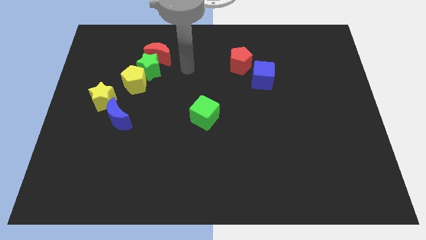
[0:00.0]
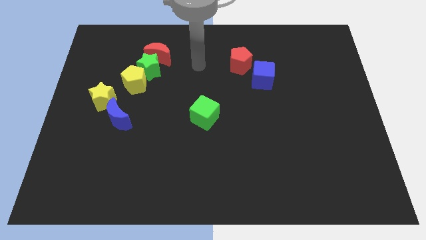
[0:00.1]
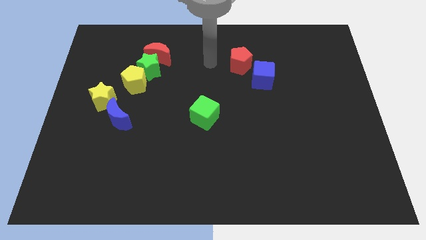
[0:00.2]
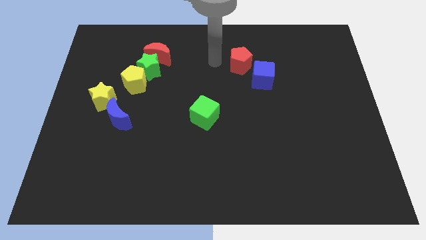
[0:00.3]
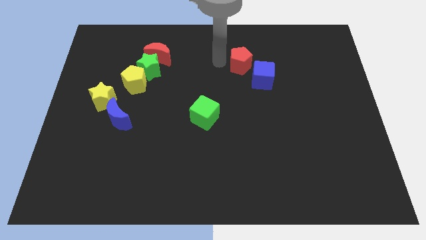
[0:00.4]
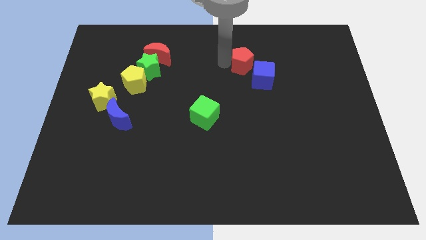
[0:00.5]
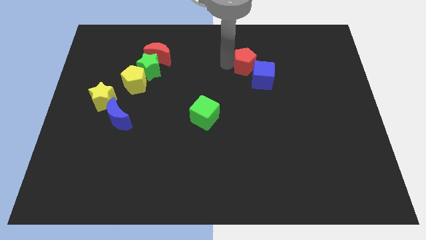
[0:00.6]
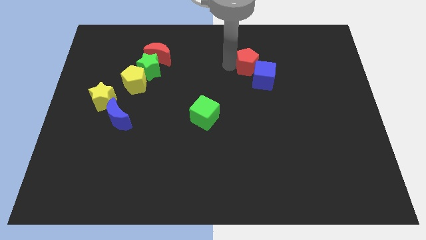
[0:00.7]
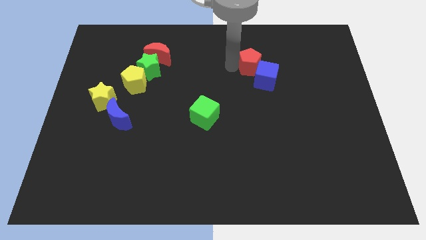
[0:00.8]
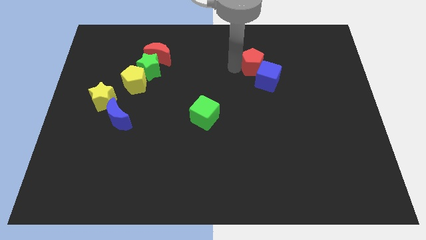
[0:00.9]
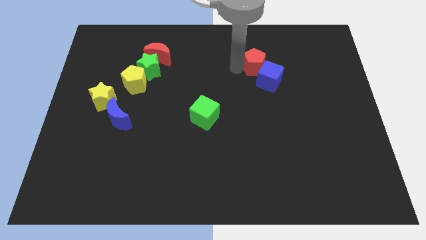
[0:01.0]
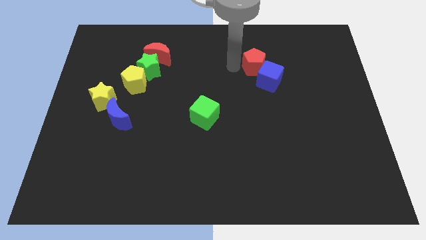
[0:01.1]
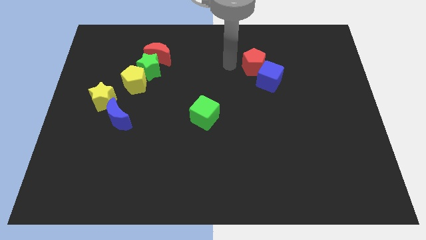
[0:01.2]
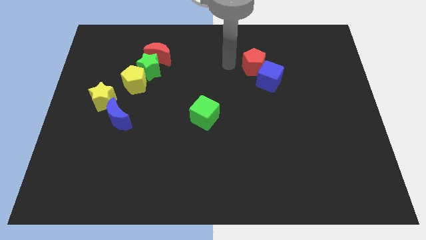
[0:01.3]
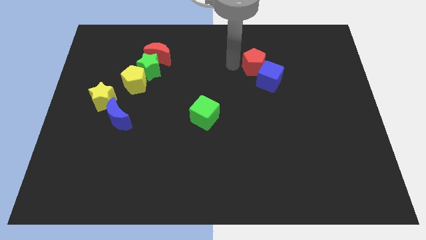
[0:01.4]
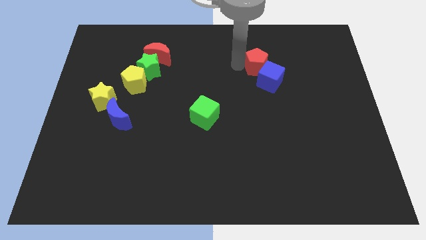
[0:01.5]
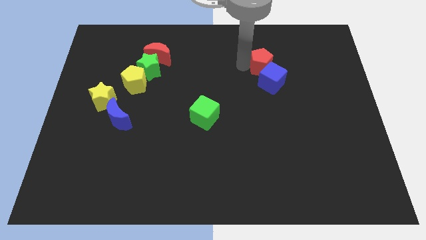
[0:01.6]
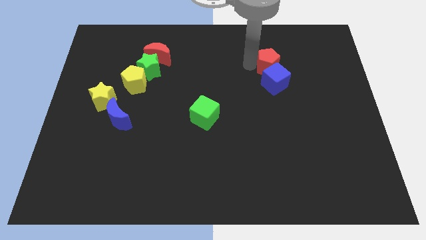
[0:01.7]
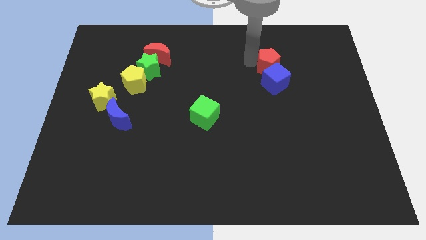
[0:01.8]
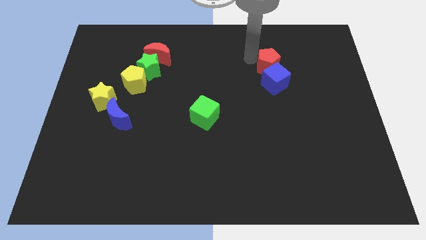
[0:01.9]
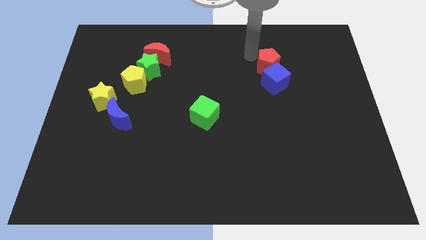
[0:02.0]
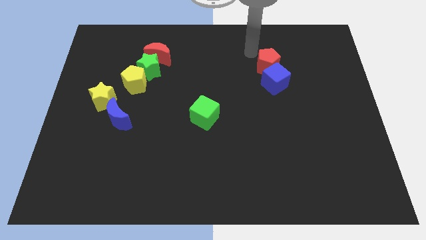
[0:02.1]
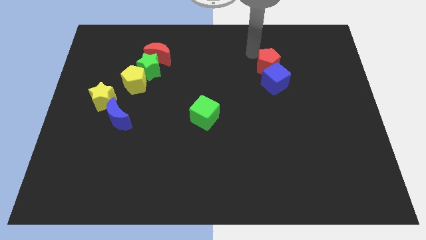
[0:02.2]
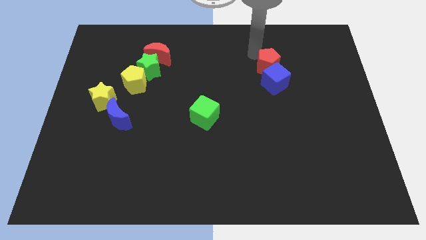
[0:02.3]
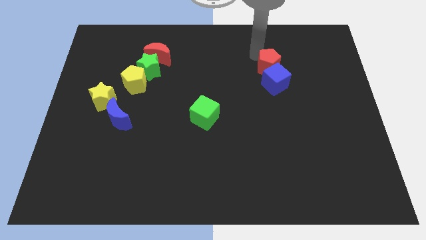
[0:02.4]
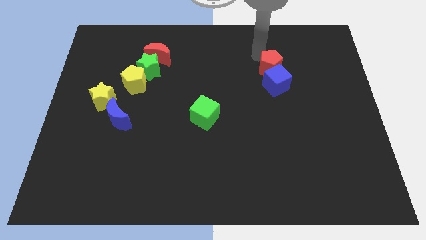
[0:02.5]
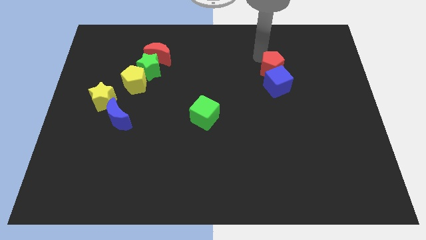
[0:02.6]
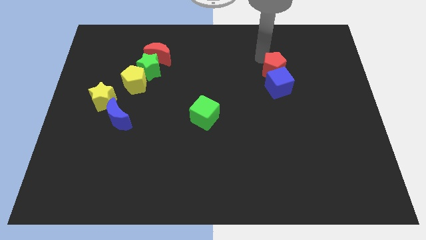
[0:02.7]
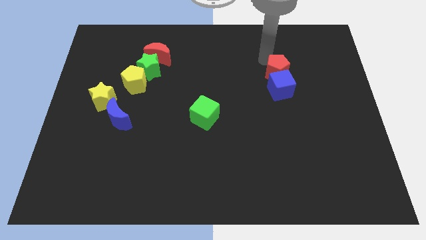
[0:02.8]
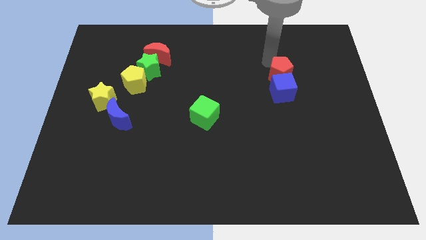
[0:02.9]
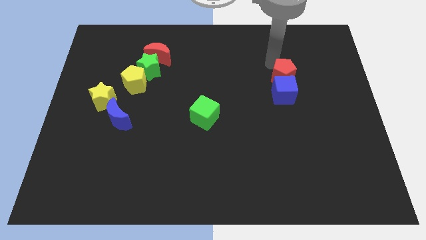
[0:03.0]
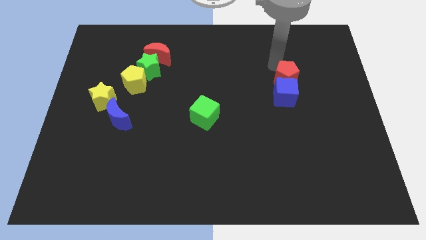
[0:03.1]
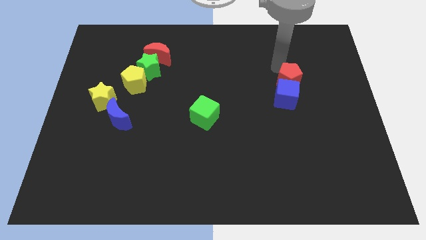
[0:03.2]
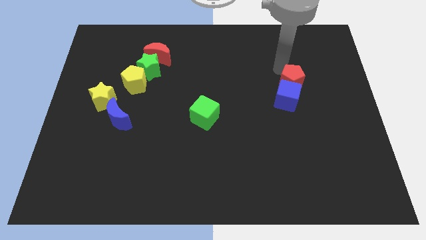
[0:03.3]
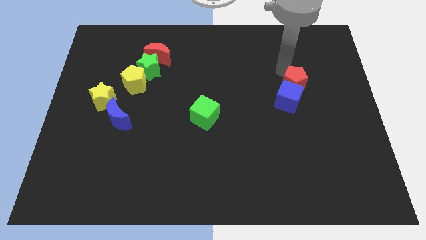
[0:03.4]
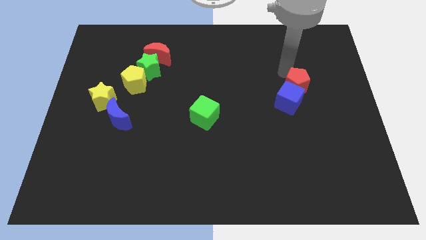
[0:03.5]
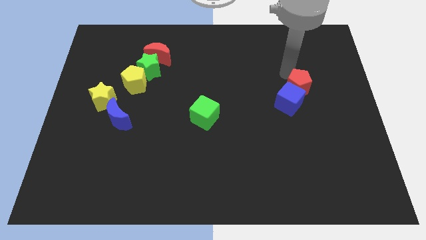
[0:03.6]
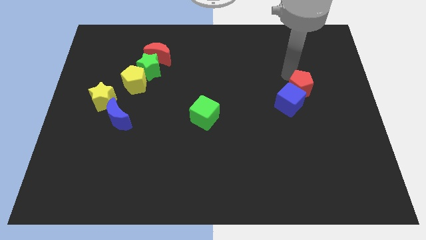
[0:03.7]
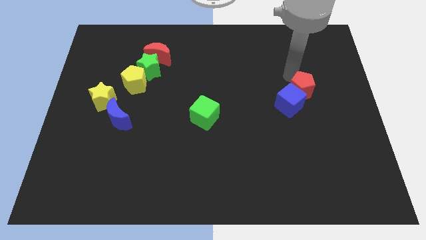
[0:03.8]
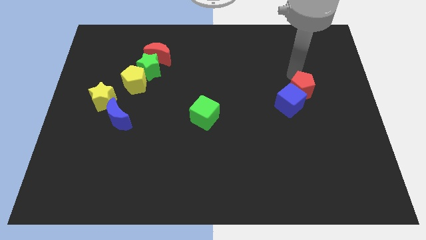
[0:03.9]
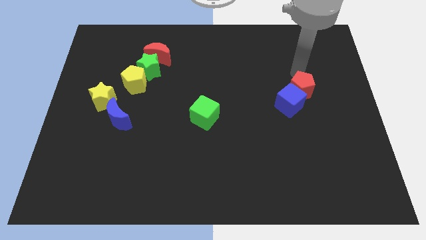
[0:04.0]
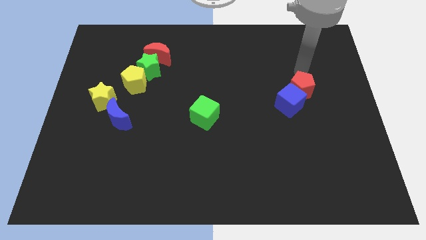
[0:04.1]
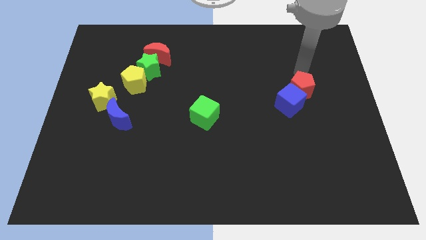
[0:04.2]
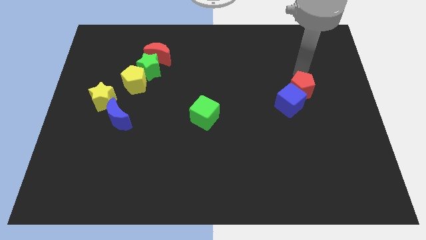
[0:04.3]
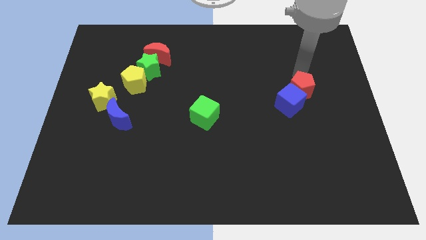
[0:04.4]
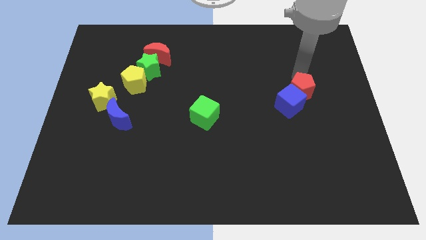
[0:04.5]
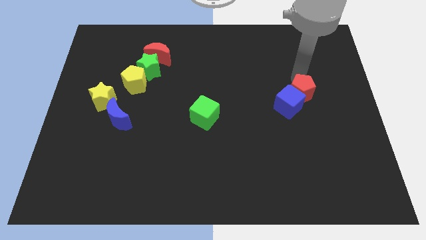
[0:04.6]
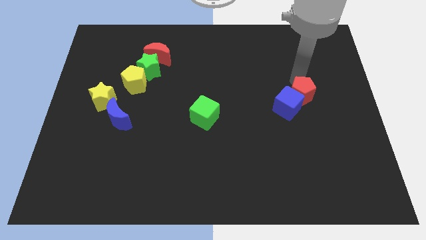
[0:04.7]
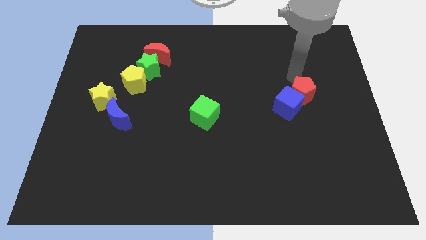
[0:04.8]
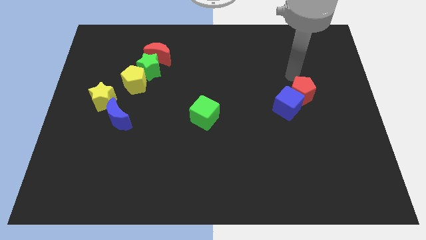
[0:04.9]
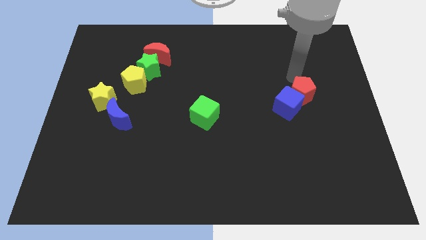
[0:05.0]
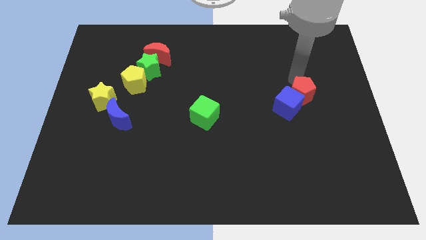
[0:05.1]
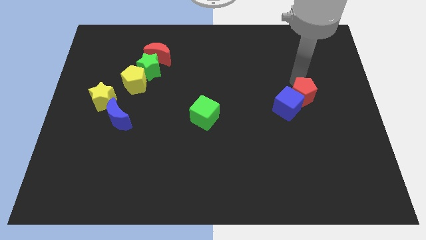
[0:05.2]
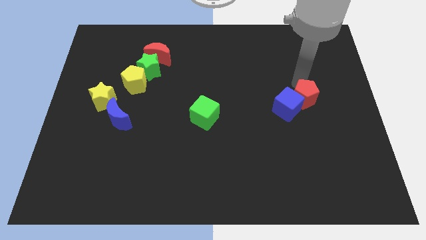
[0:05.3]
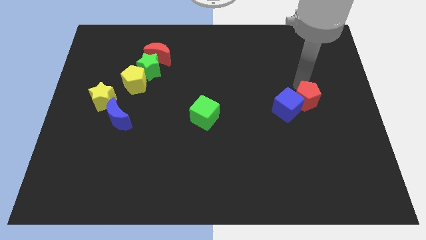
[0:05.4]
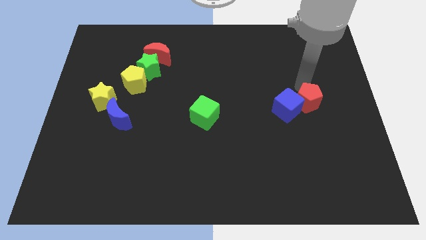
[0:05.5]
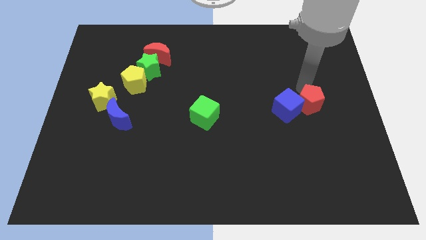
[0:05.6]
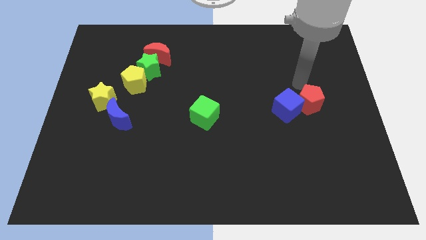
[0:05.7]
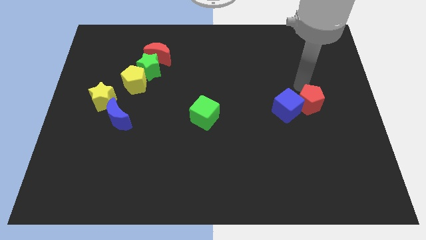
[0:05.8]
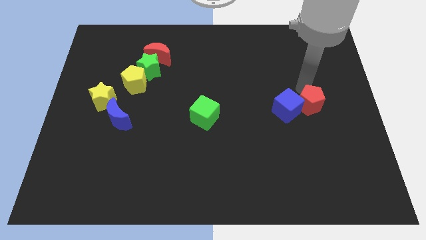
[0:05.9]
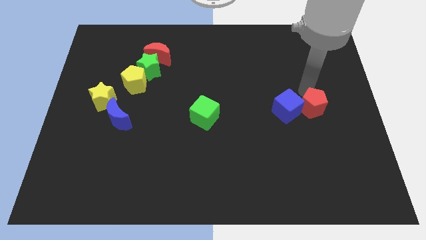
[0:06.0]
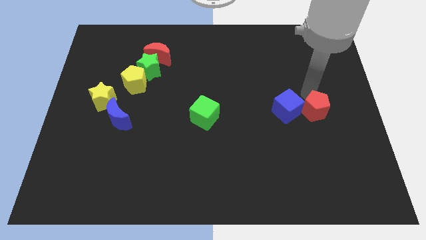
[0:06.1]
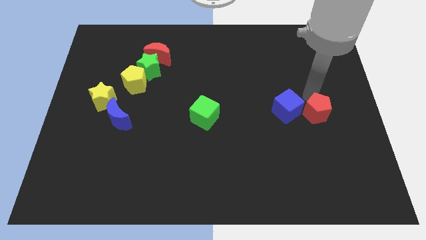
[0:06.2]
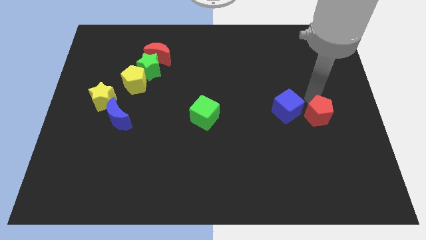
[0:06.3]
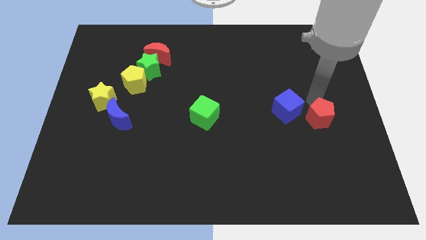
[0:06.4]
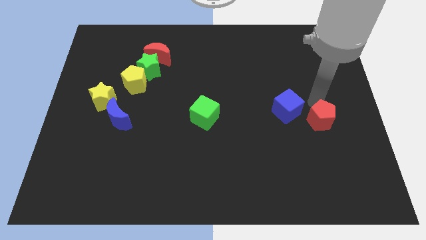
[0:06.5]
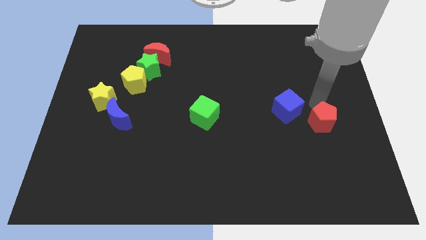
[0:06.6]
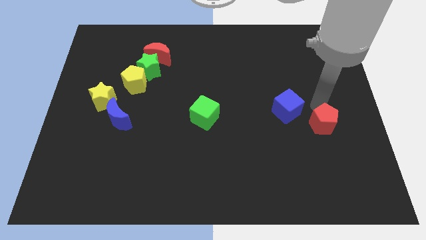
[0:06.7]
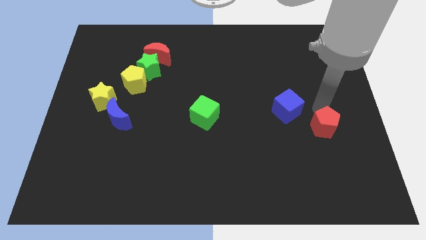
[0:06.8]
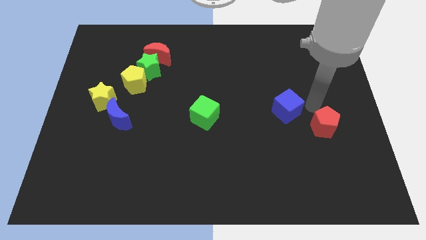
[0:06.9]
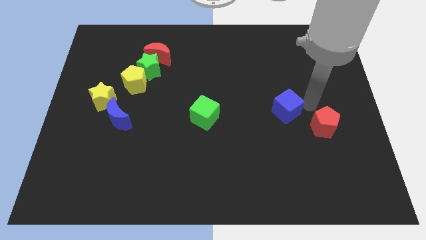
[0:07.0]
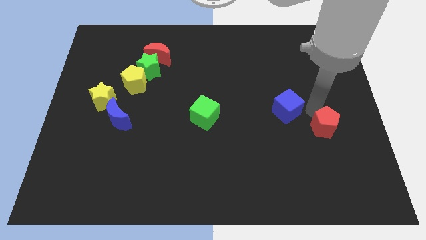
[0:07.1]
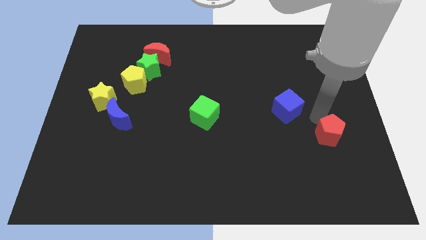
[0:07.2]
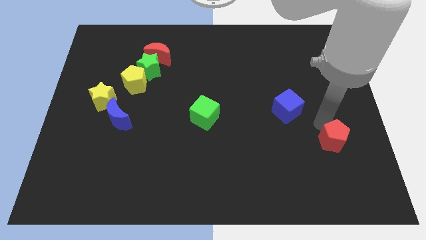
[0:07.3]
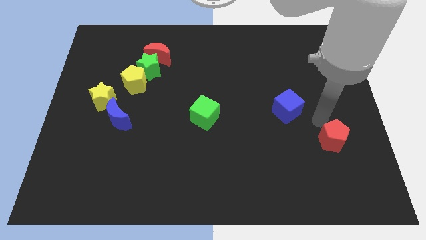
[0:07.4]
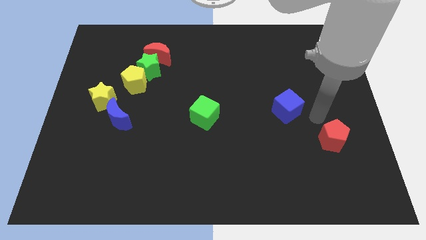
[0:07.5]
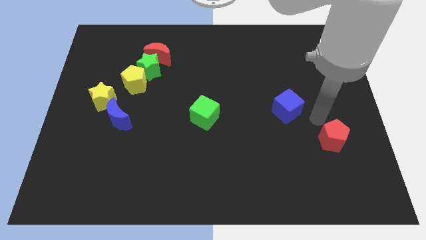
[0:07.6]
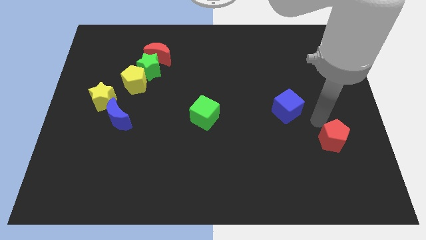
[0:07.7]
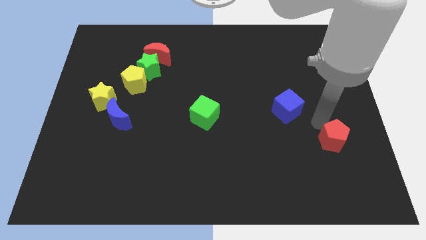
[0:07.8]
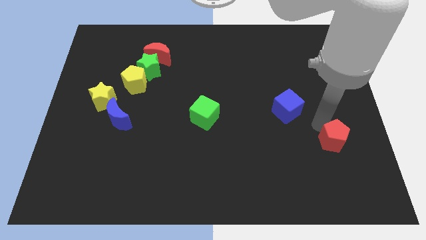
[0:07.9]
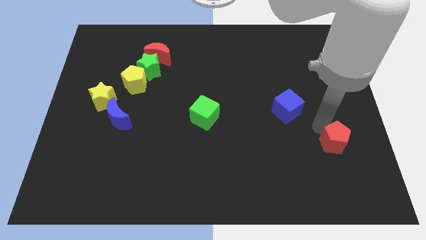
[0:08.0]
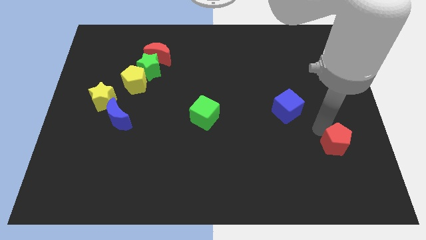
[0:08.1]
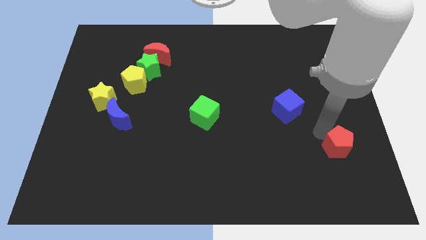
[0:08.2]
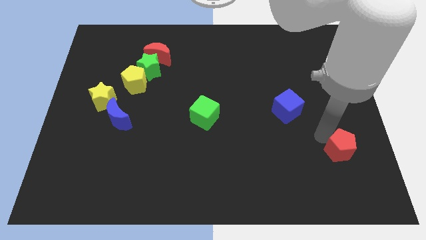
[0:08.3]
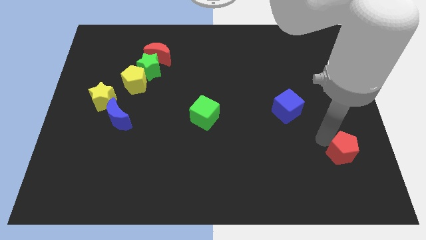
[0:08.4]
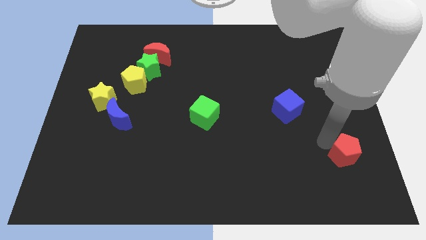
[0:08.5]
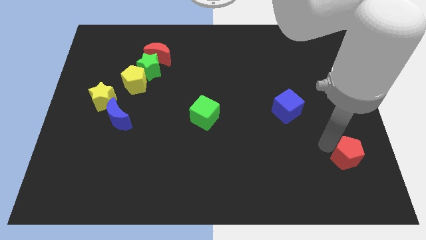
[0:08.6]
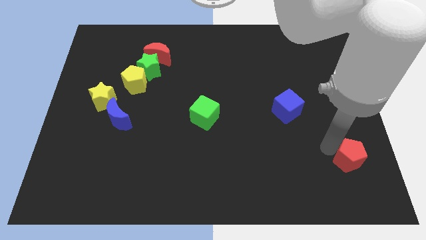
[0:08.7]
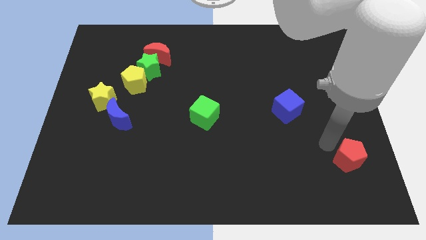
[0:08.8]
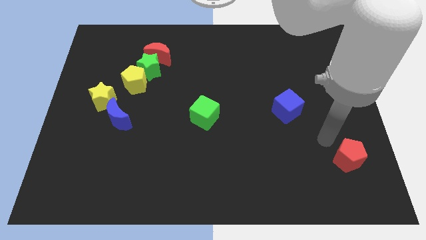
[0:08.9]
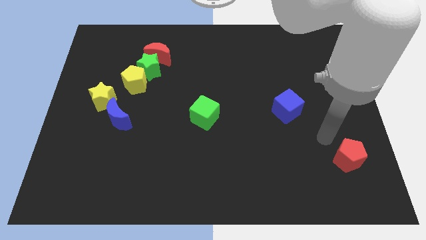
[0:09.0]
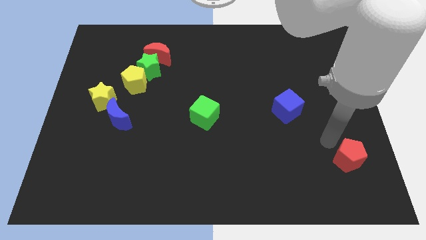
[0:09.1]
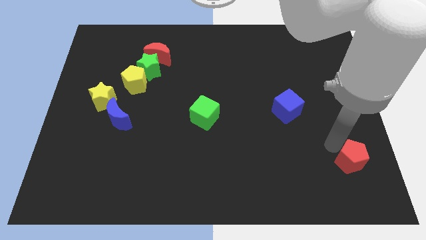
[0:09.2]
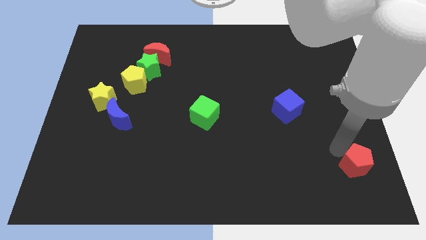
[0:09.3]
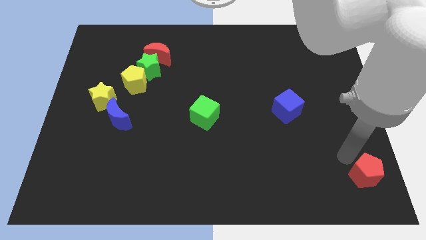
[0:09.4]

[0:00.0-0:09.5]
push the red pentagon to the lower right corner
